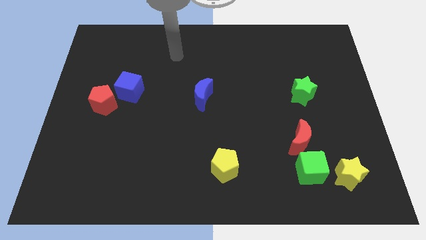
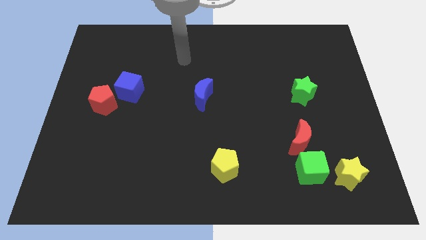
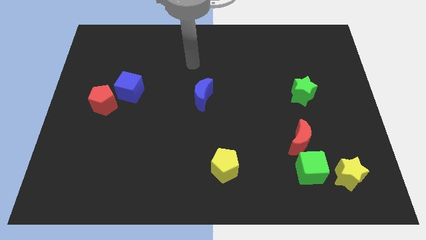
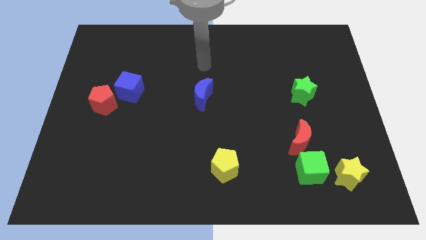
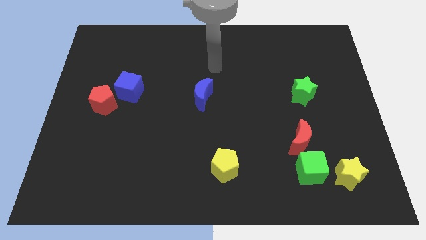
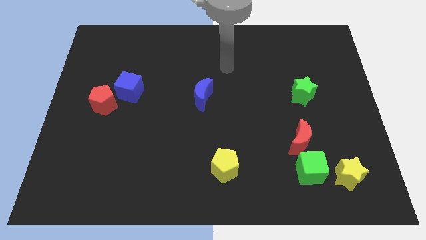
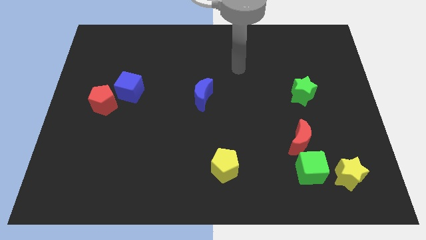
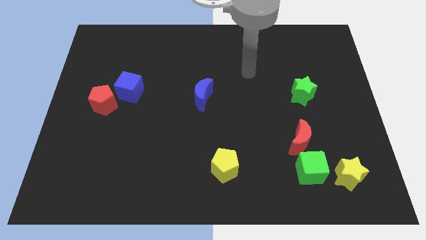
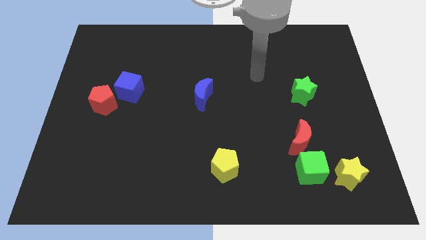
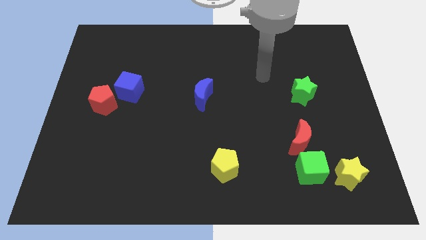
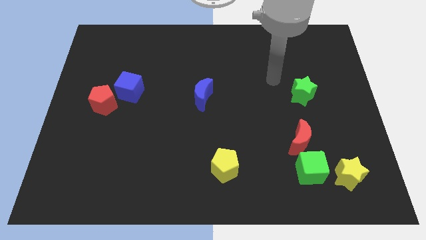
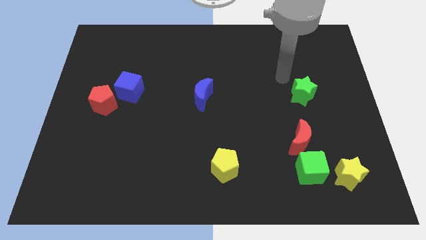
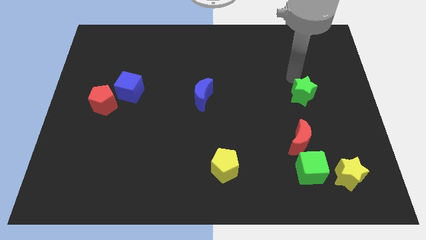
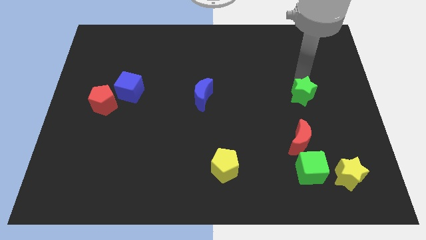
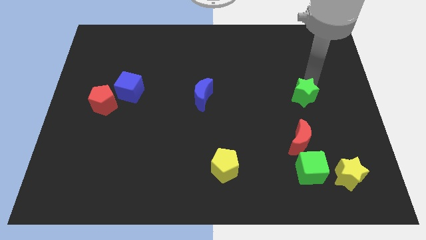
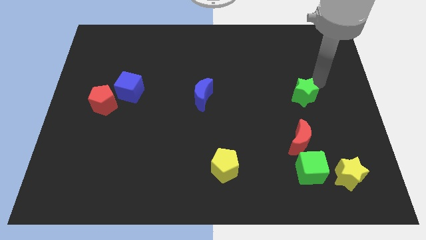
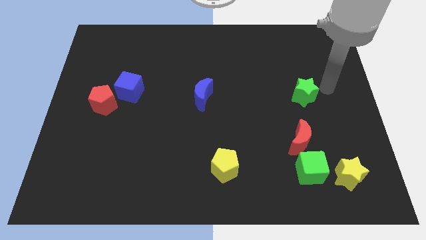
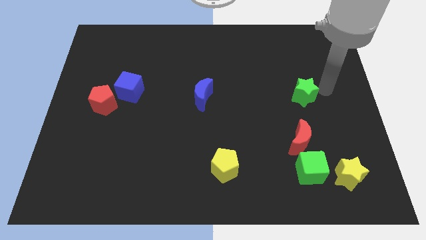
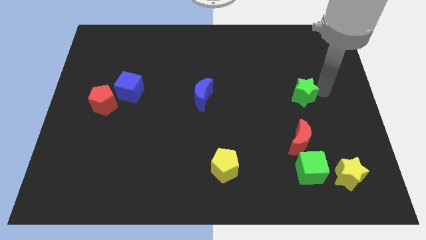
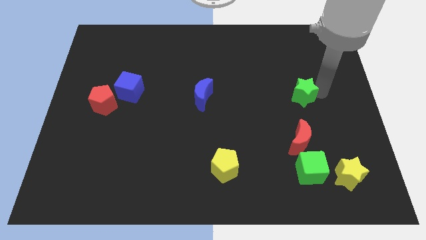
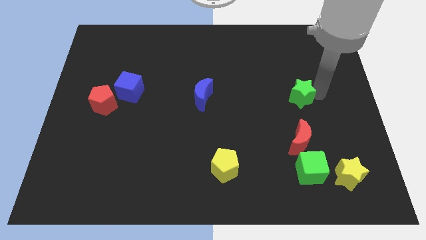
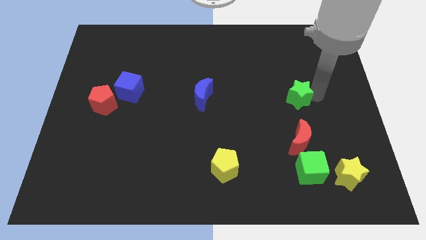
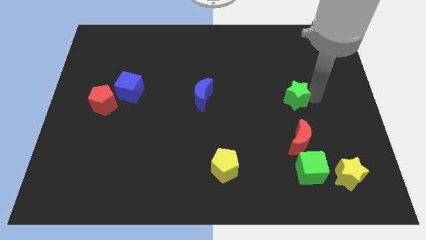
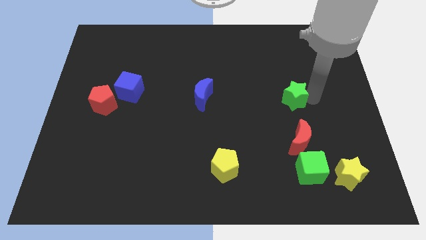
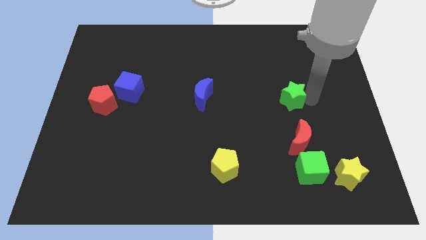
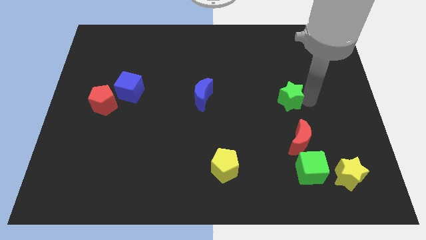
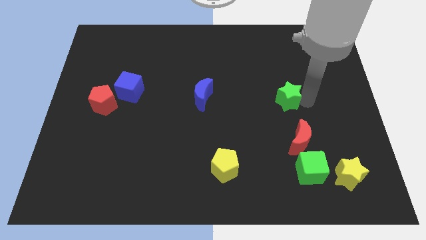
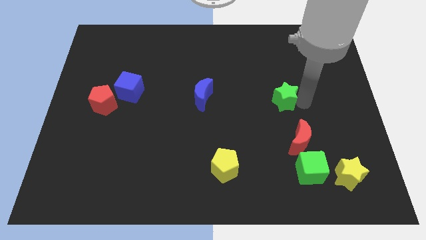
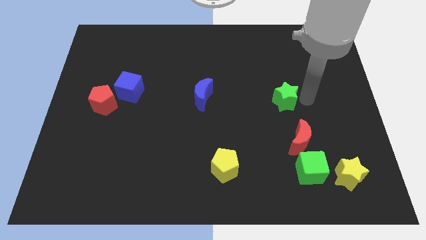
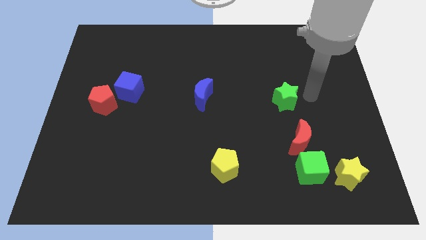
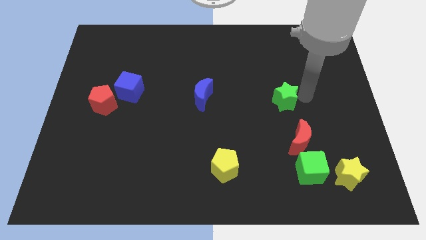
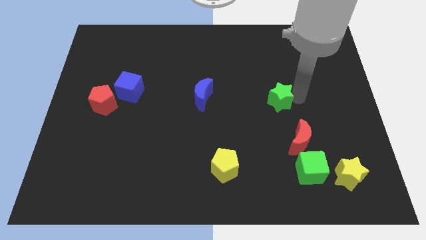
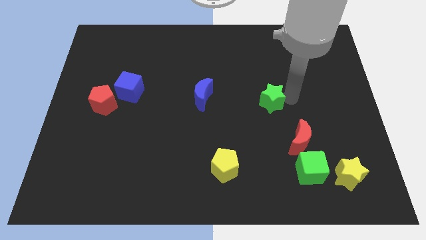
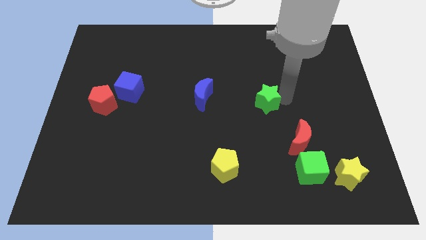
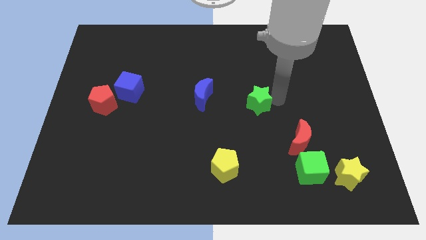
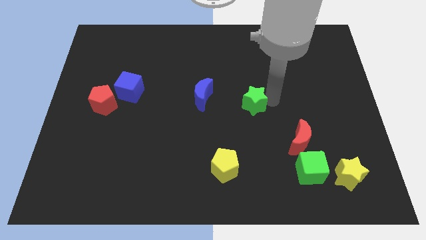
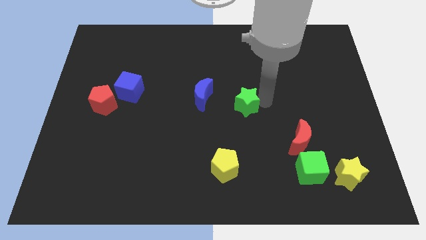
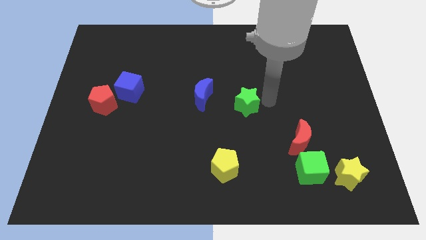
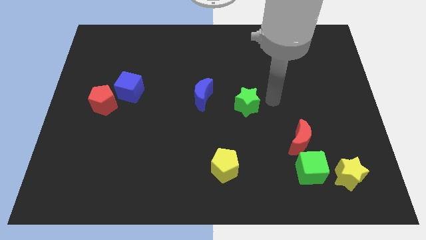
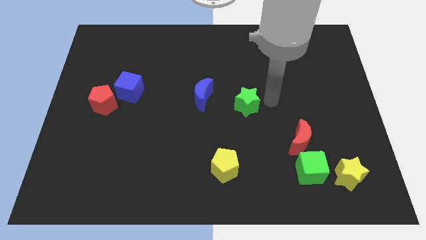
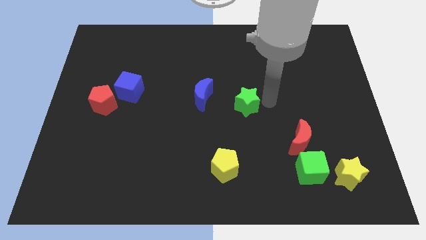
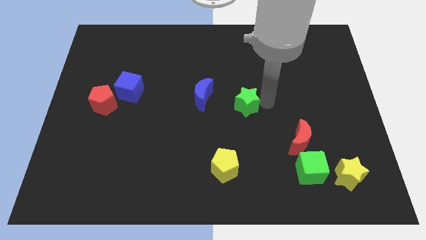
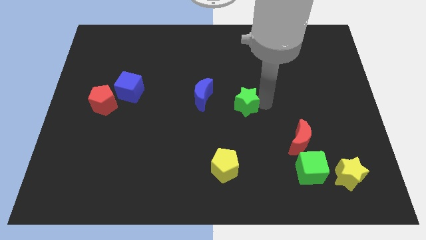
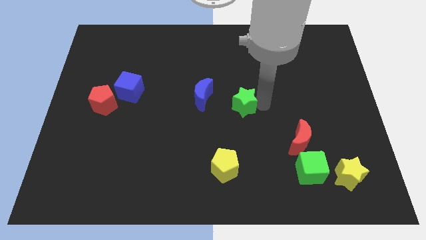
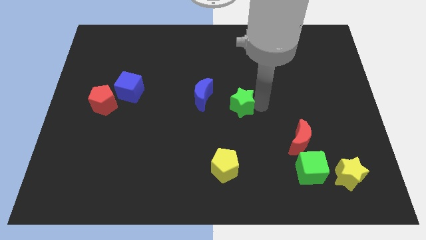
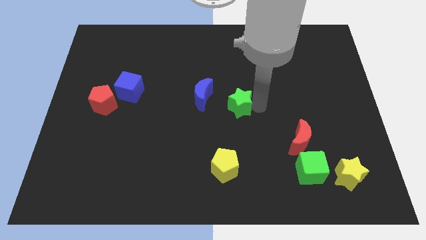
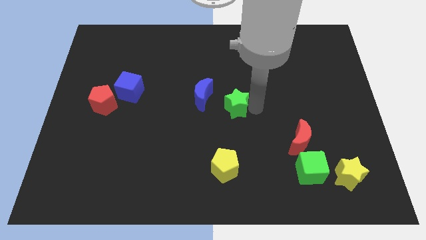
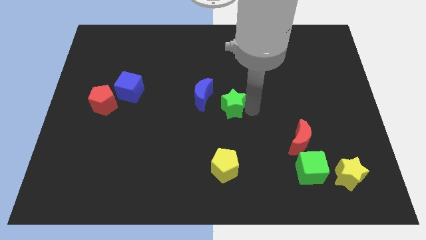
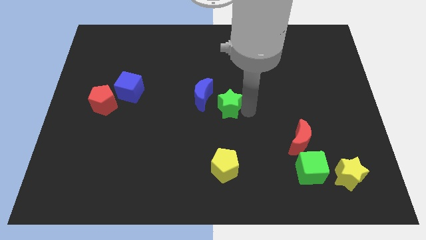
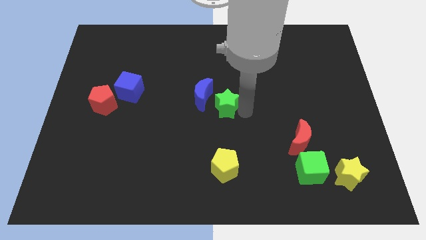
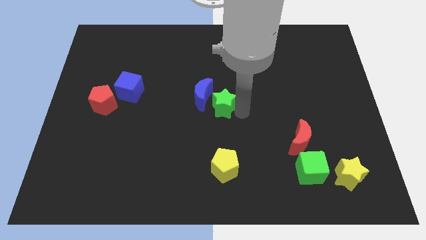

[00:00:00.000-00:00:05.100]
push the green star towards the blue moon

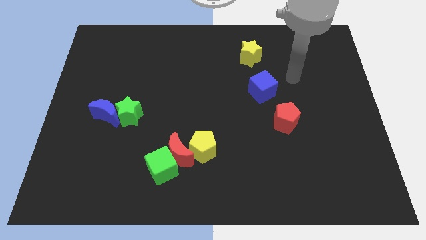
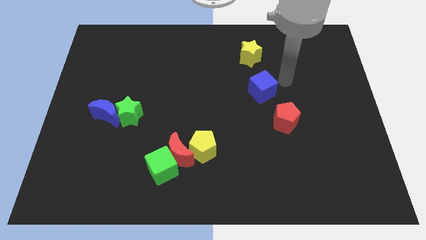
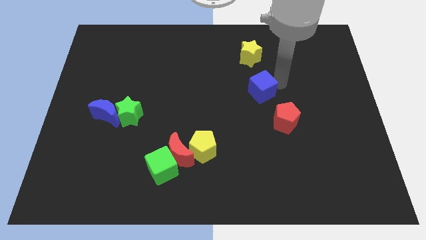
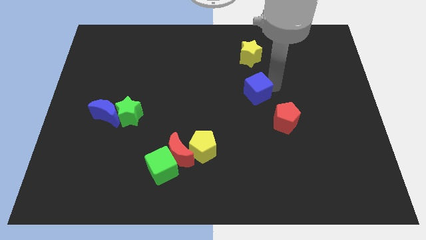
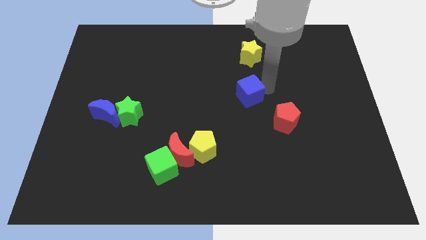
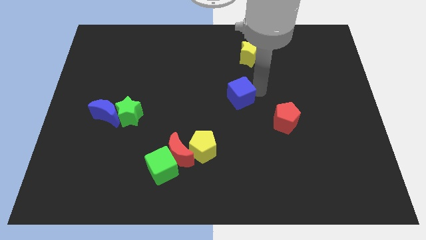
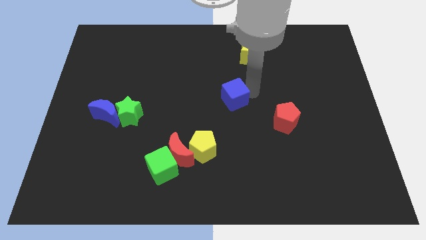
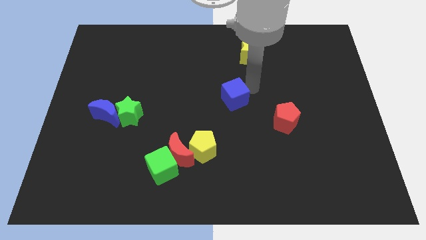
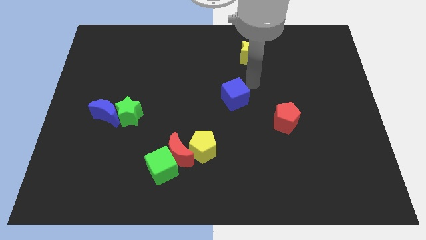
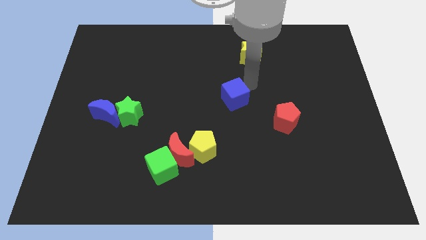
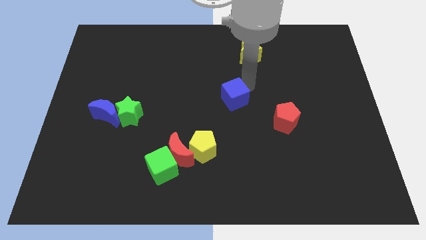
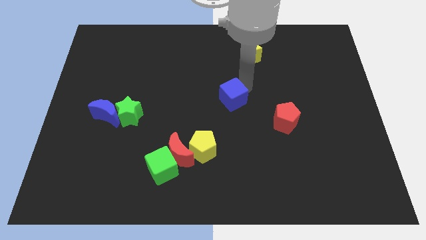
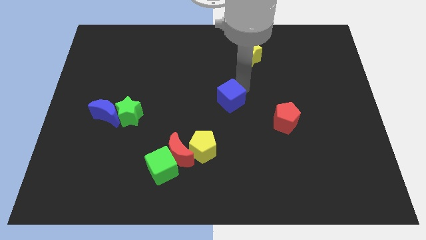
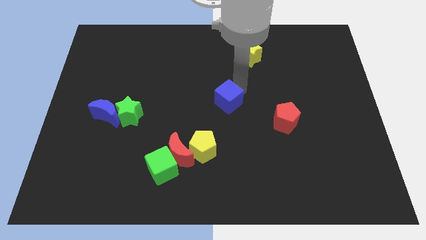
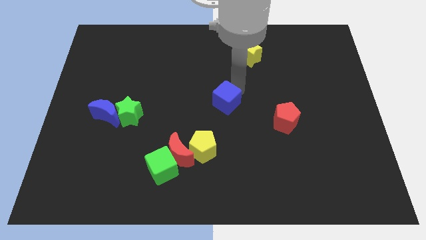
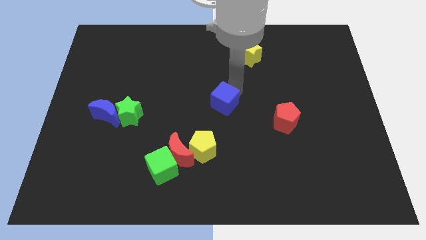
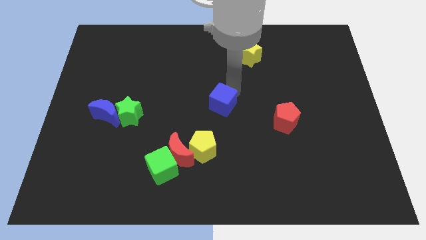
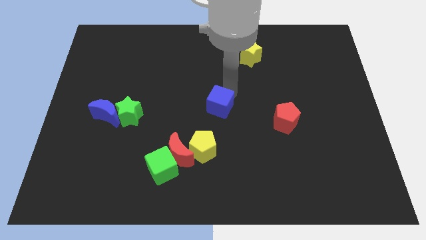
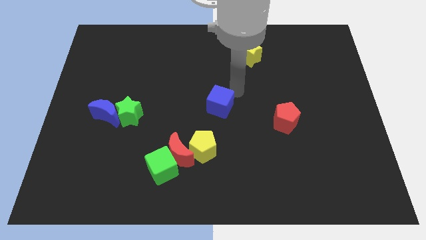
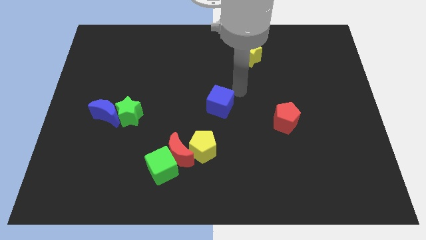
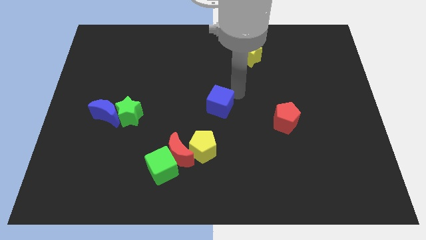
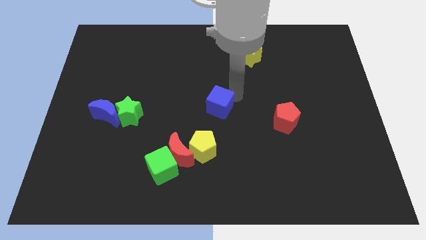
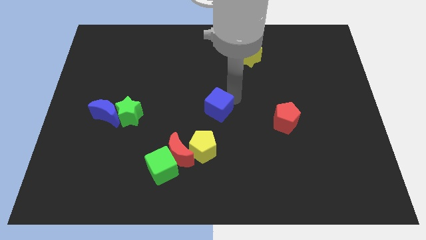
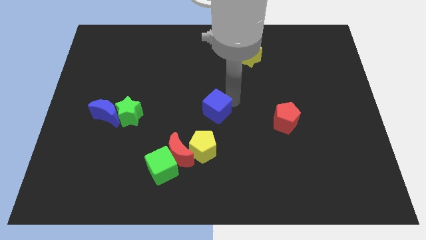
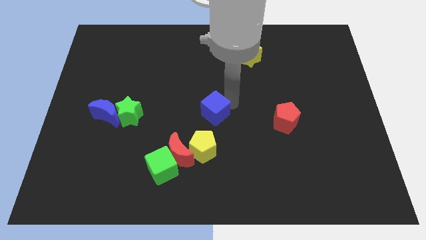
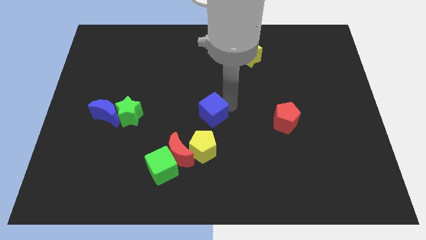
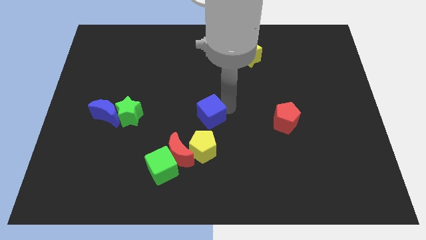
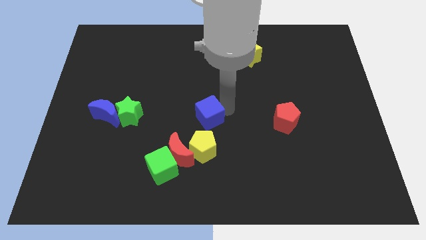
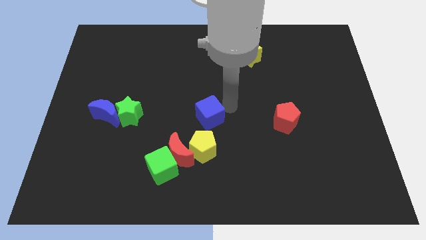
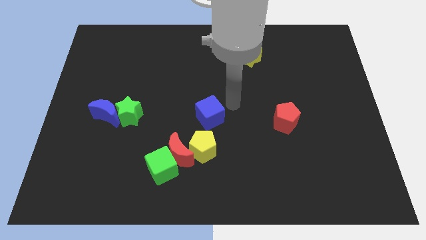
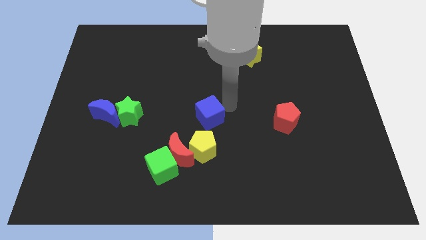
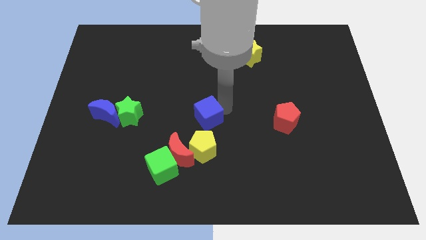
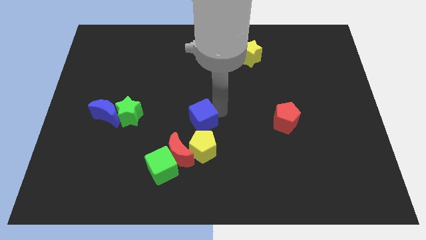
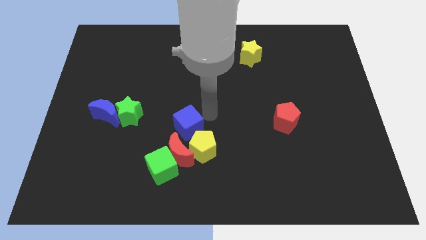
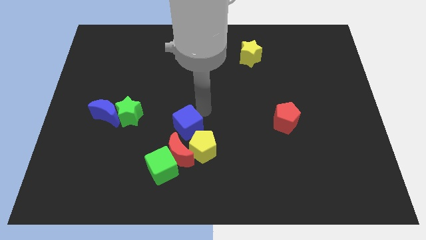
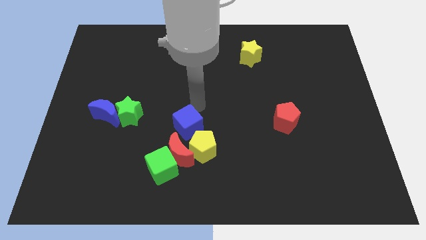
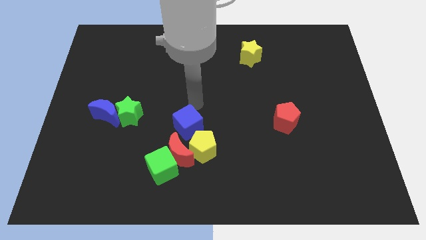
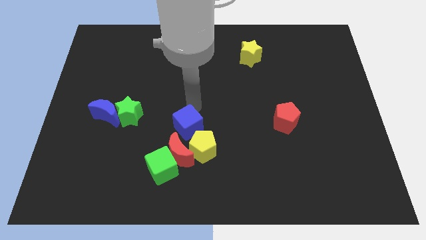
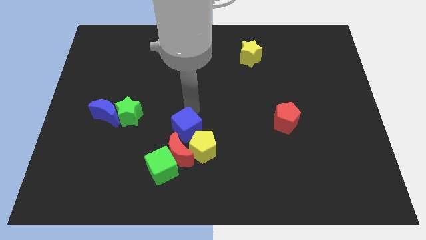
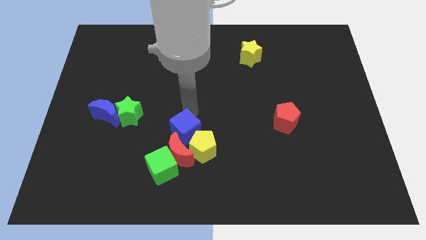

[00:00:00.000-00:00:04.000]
move the blue cube to the red moon
